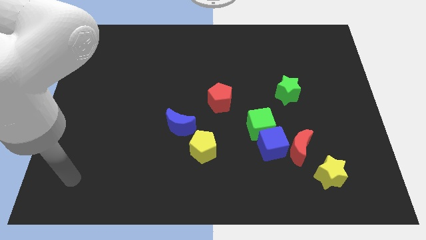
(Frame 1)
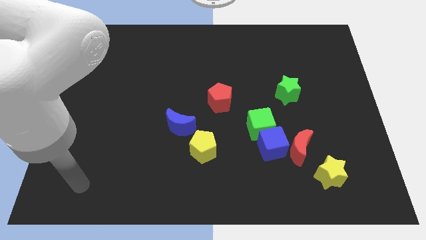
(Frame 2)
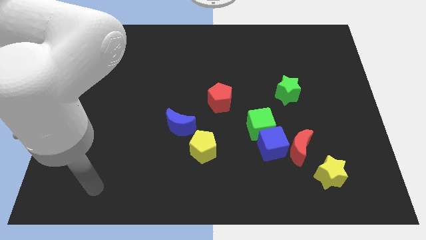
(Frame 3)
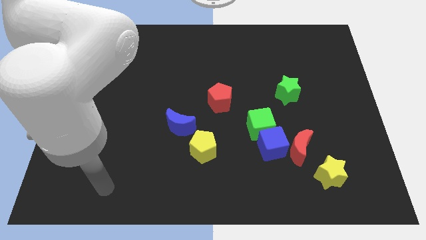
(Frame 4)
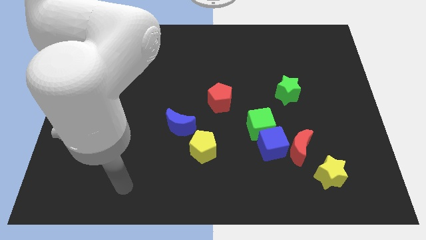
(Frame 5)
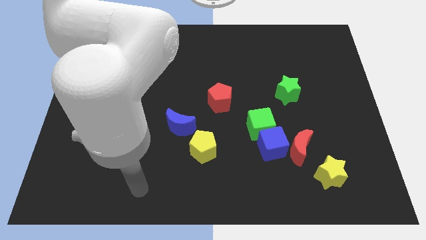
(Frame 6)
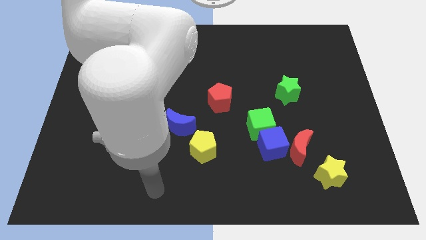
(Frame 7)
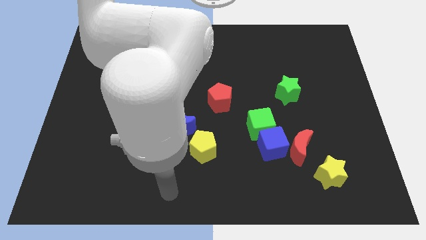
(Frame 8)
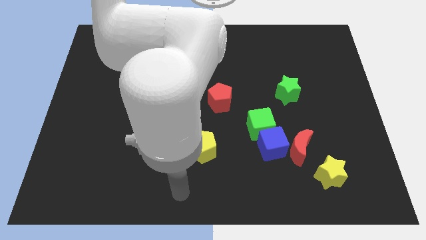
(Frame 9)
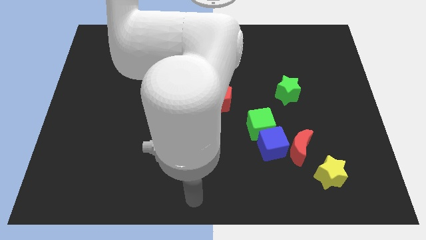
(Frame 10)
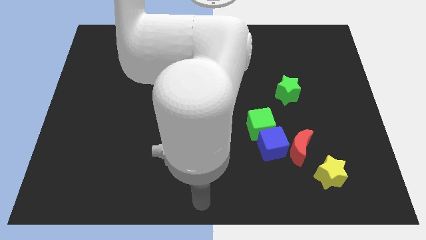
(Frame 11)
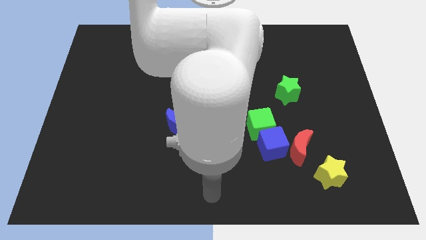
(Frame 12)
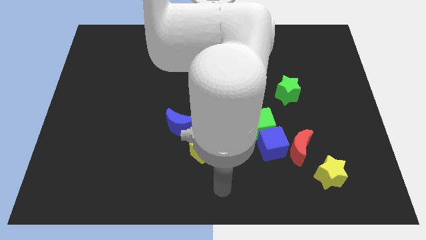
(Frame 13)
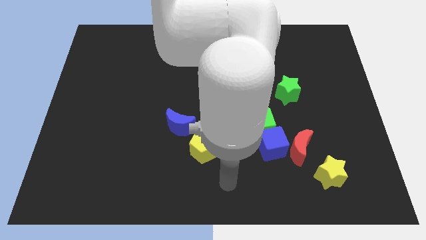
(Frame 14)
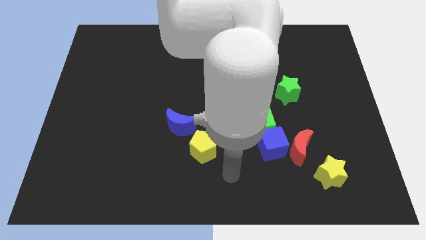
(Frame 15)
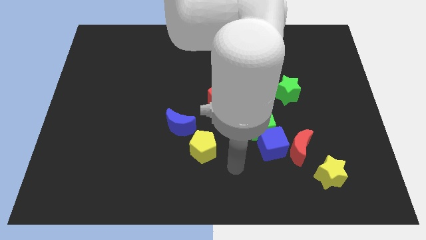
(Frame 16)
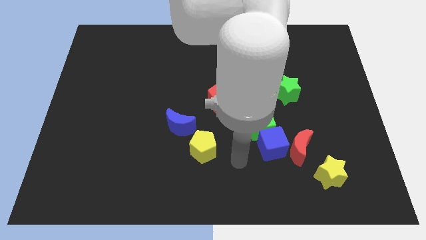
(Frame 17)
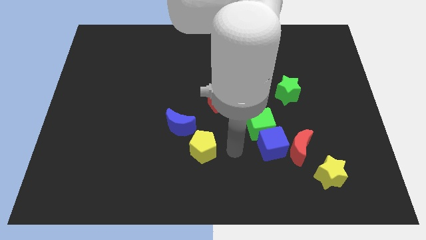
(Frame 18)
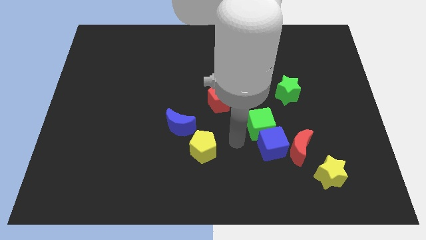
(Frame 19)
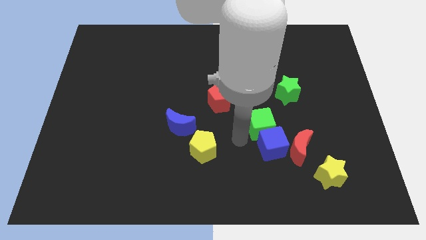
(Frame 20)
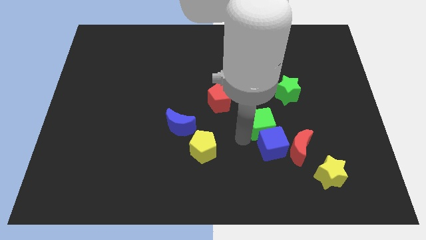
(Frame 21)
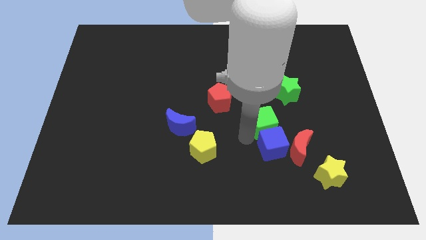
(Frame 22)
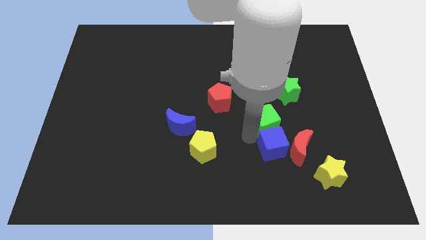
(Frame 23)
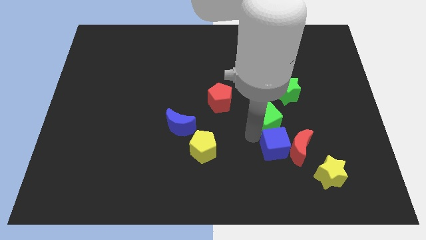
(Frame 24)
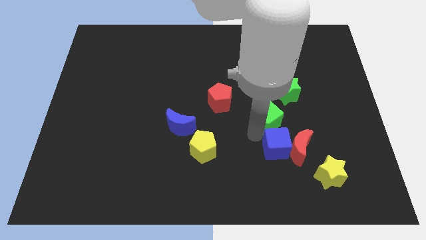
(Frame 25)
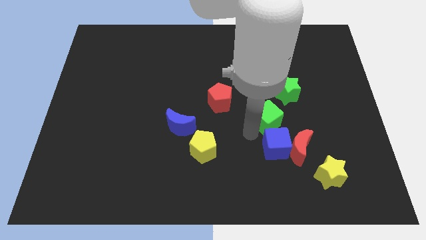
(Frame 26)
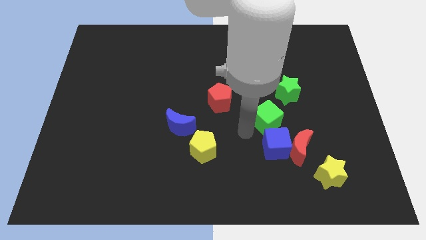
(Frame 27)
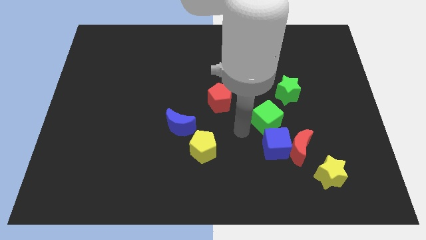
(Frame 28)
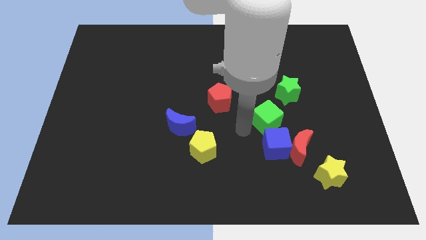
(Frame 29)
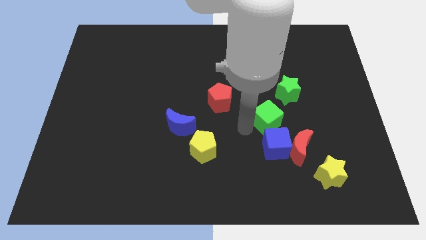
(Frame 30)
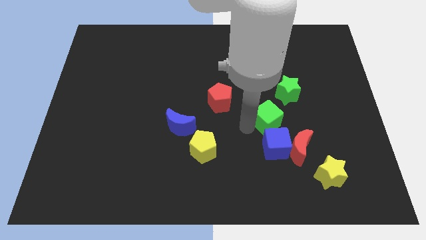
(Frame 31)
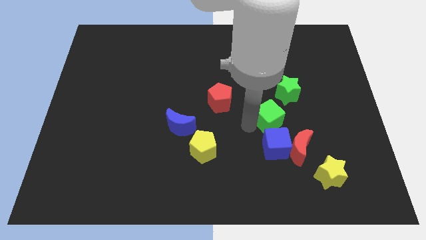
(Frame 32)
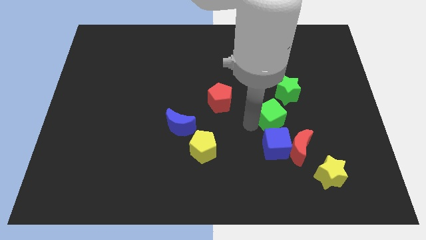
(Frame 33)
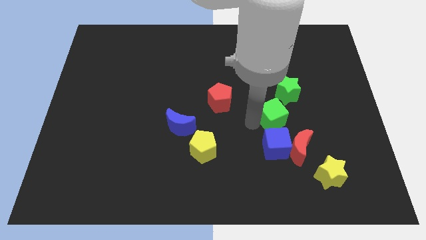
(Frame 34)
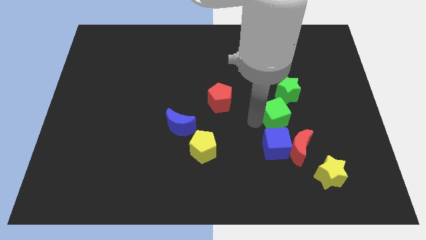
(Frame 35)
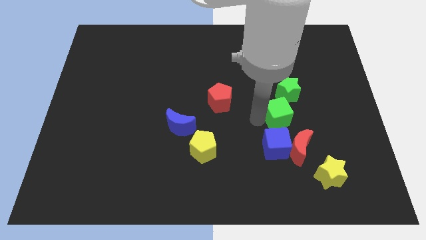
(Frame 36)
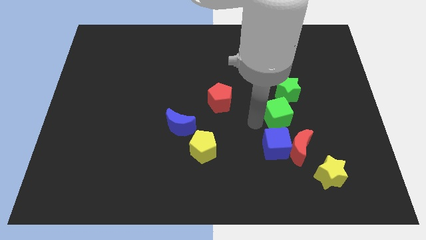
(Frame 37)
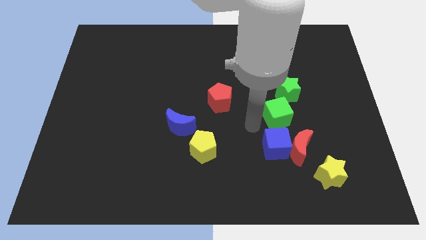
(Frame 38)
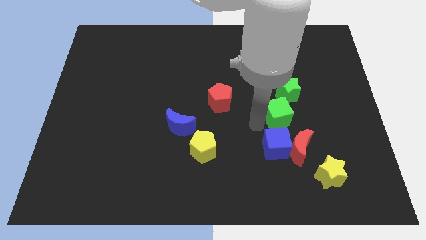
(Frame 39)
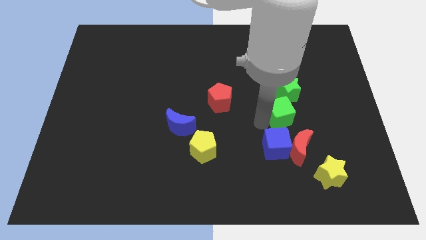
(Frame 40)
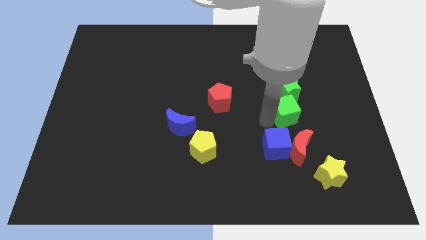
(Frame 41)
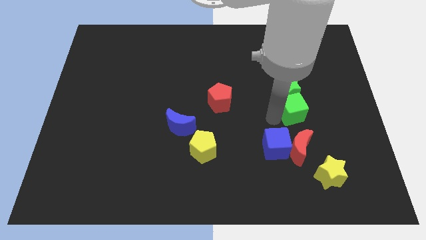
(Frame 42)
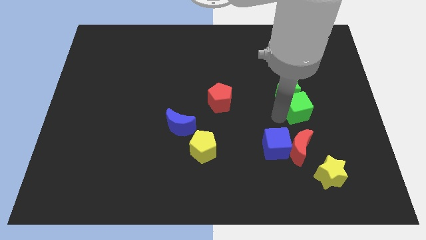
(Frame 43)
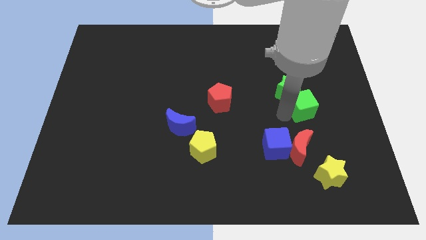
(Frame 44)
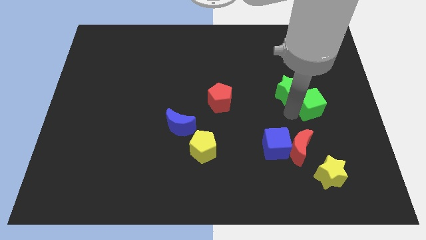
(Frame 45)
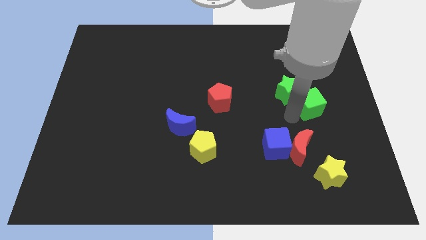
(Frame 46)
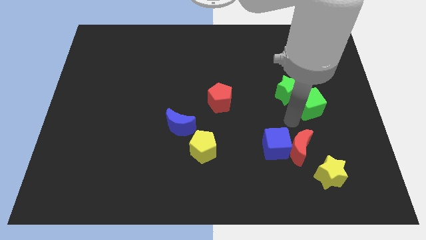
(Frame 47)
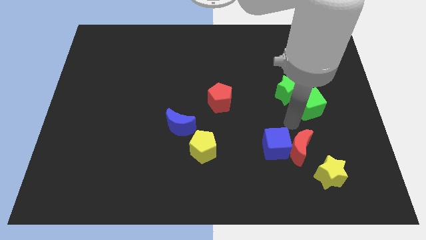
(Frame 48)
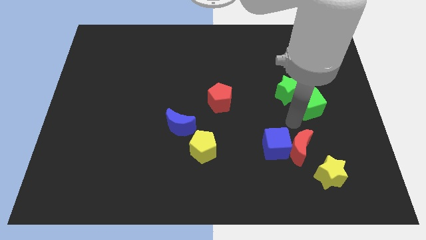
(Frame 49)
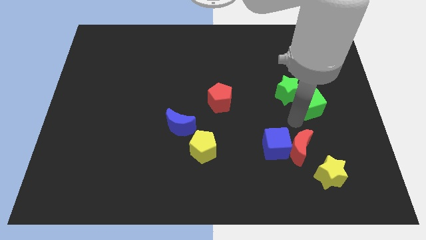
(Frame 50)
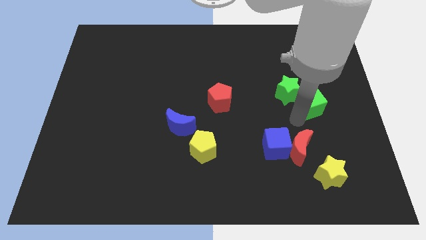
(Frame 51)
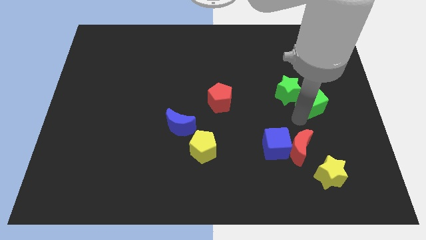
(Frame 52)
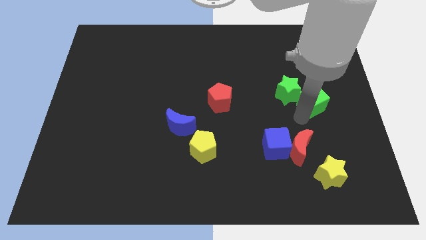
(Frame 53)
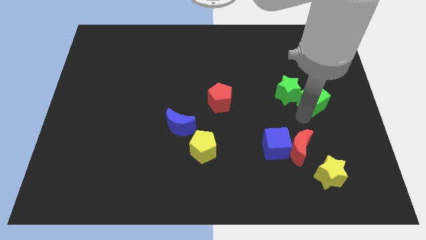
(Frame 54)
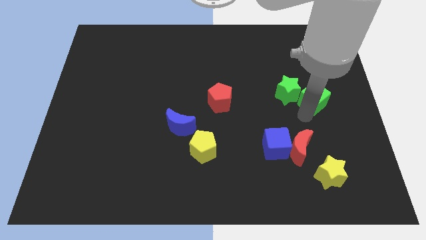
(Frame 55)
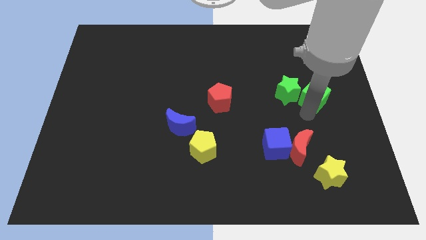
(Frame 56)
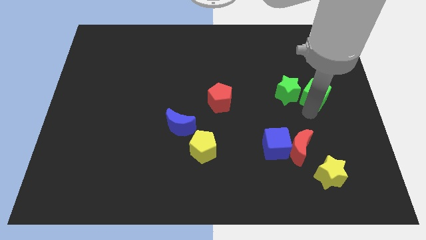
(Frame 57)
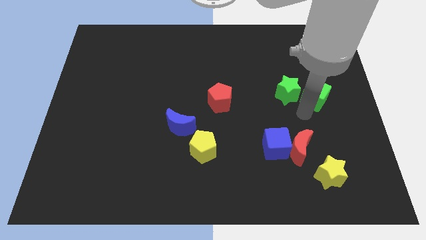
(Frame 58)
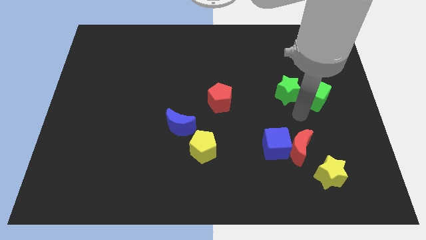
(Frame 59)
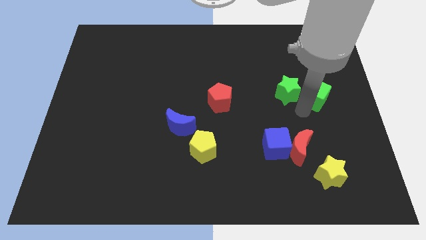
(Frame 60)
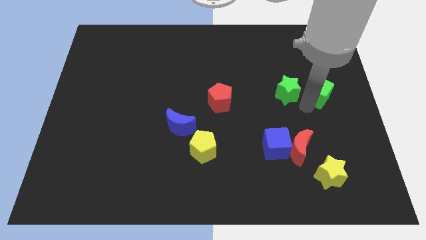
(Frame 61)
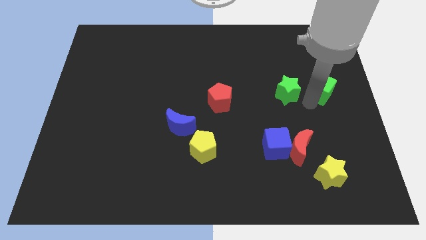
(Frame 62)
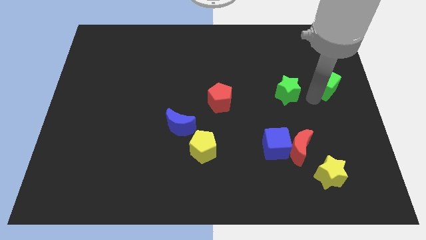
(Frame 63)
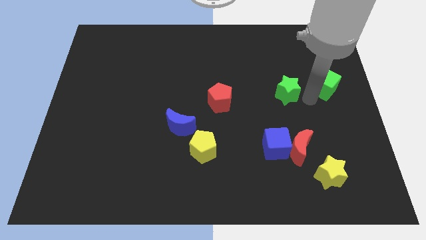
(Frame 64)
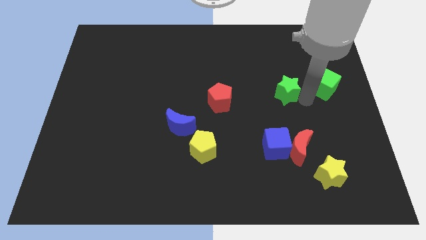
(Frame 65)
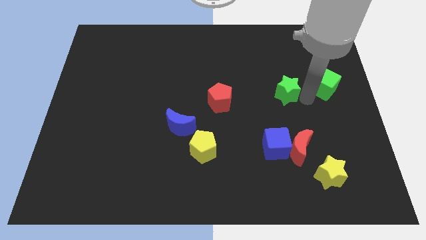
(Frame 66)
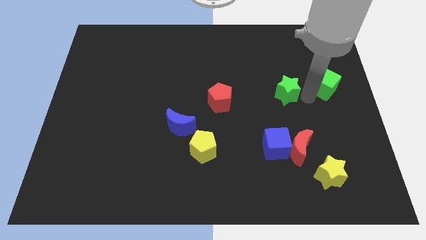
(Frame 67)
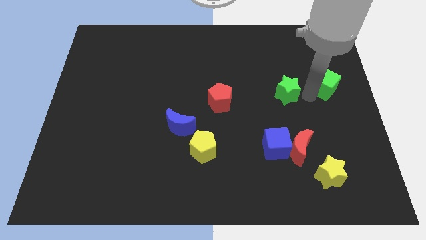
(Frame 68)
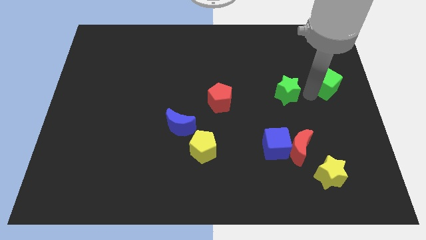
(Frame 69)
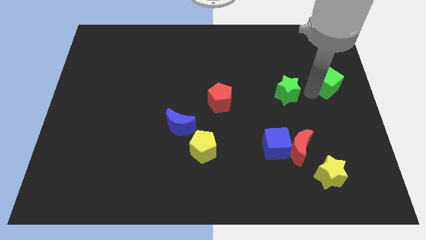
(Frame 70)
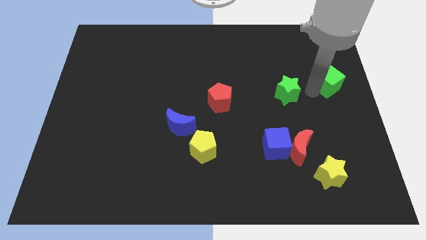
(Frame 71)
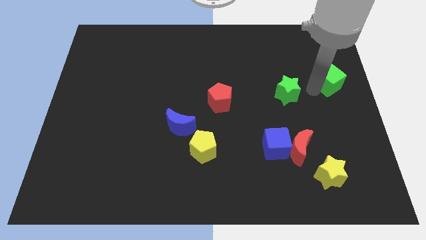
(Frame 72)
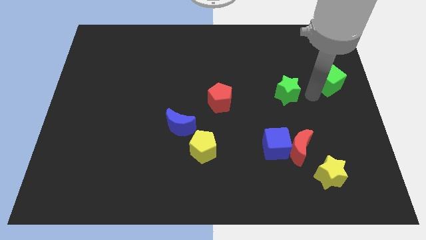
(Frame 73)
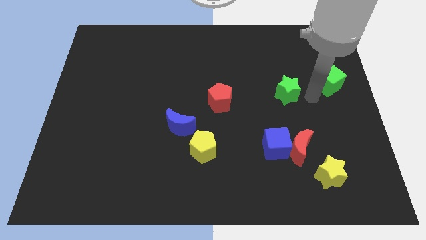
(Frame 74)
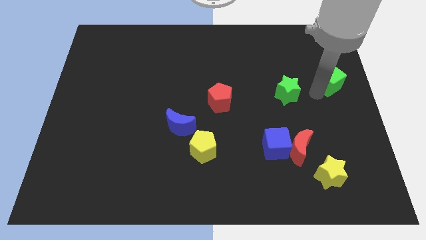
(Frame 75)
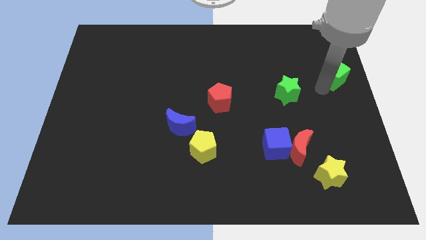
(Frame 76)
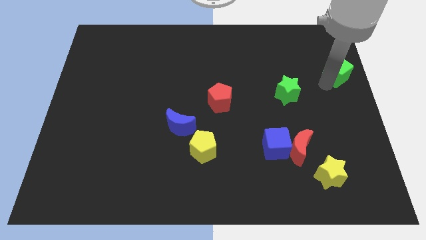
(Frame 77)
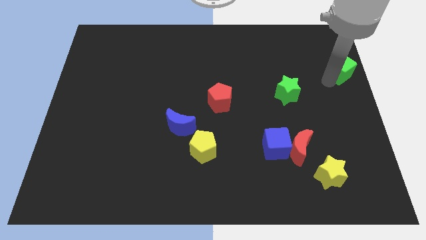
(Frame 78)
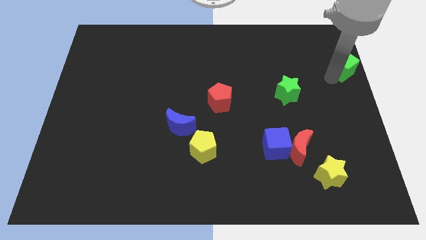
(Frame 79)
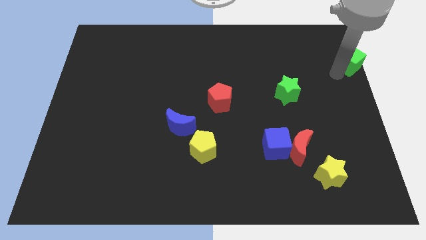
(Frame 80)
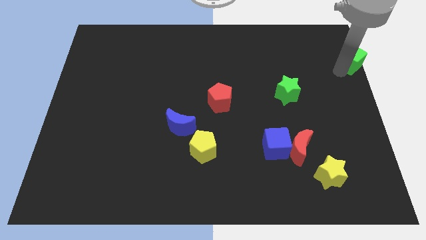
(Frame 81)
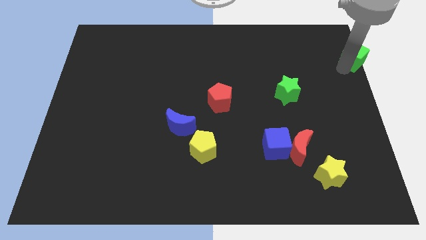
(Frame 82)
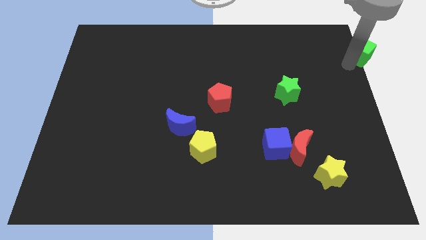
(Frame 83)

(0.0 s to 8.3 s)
slide the green cube to the top right corner
